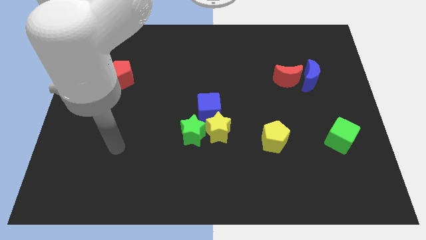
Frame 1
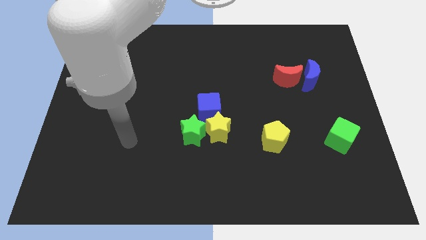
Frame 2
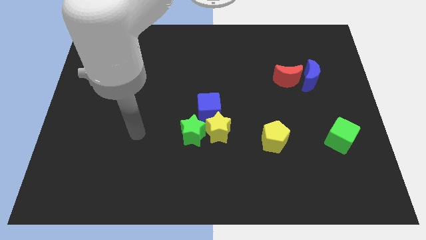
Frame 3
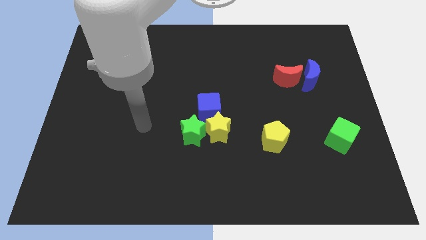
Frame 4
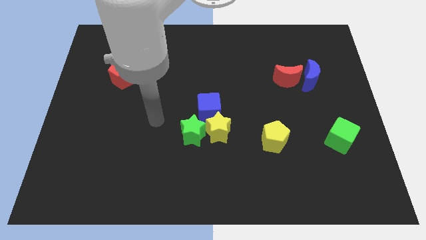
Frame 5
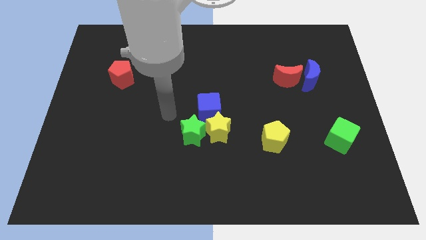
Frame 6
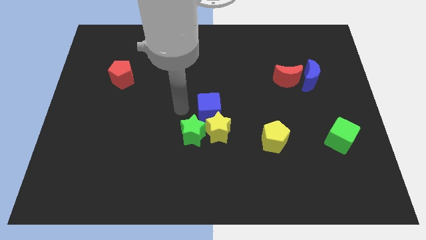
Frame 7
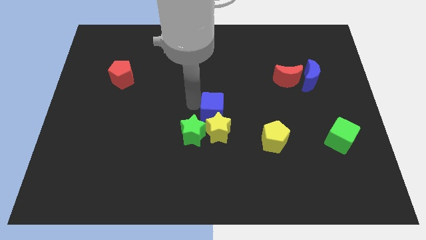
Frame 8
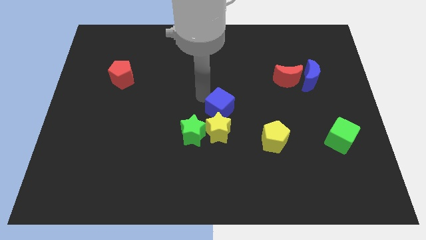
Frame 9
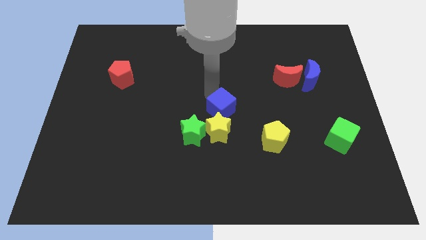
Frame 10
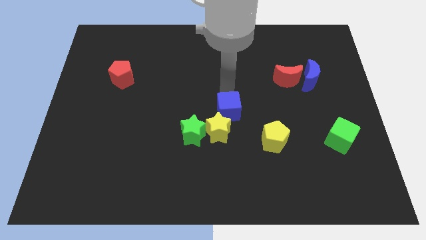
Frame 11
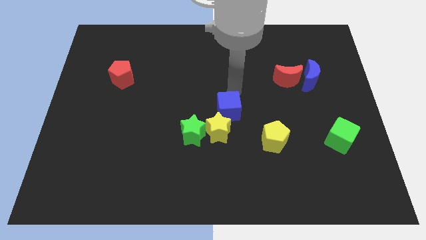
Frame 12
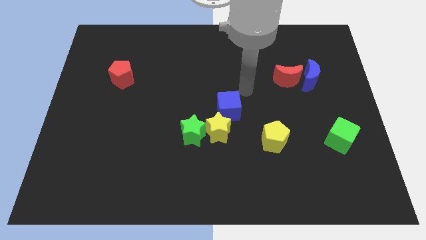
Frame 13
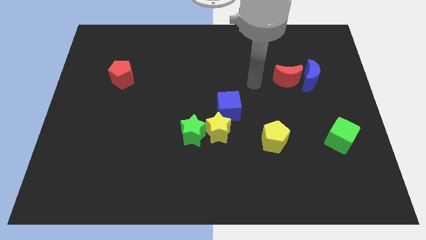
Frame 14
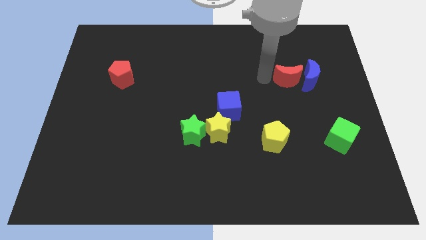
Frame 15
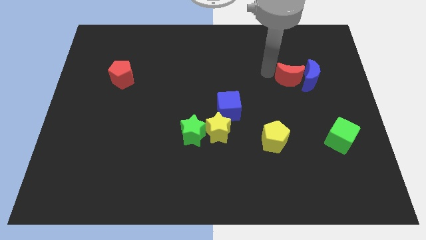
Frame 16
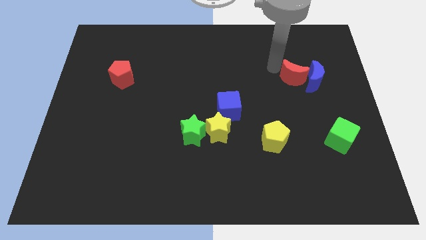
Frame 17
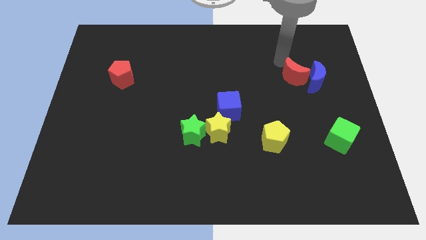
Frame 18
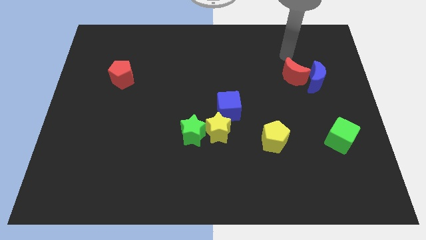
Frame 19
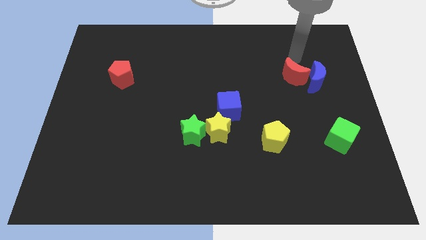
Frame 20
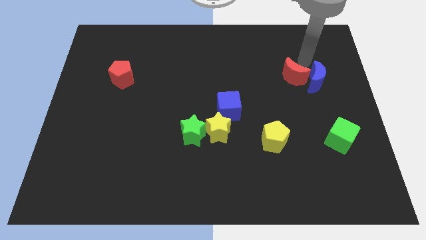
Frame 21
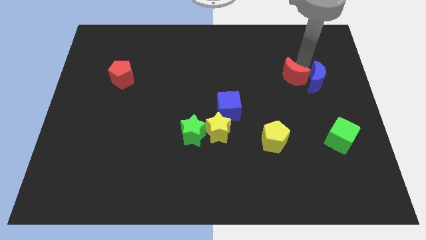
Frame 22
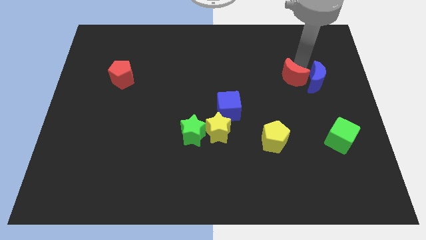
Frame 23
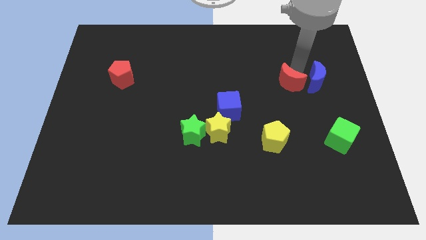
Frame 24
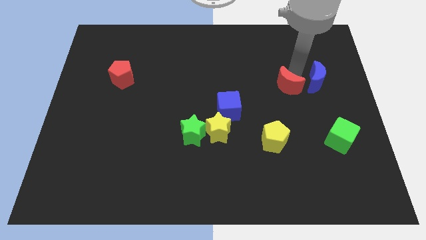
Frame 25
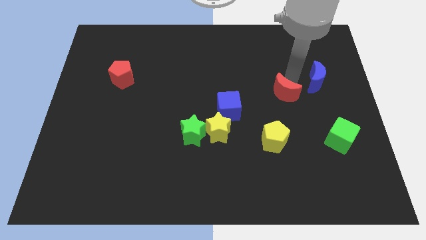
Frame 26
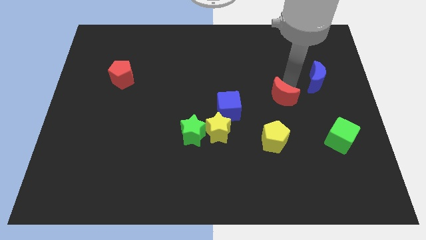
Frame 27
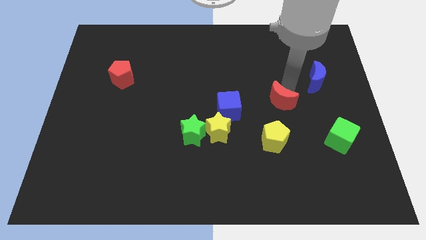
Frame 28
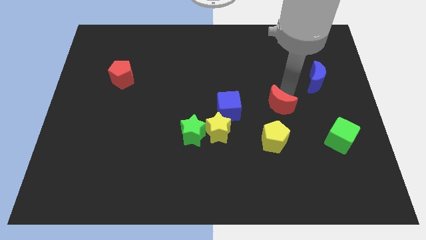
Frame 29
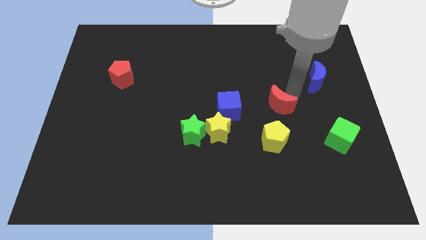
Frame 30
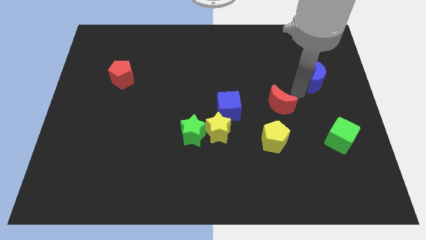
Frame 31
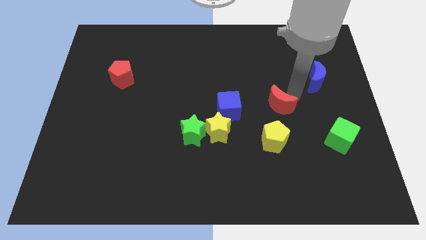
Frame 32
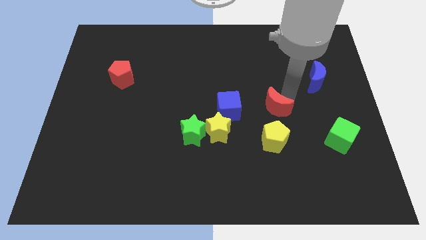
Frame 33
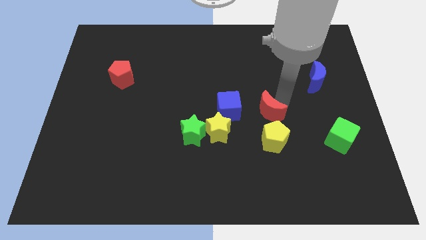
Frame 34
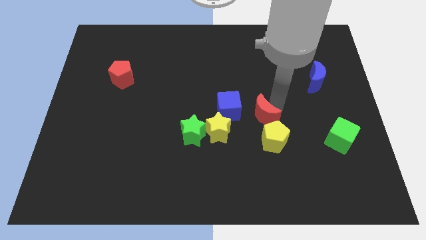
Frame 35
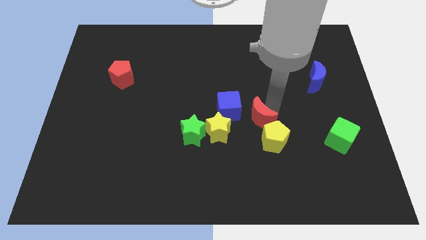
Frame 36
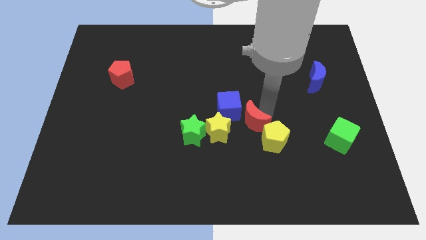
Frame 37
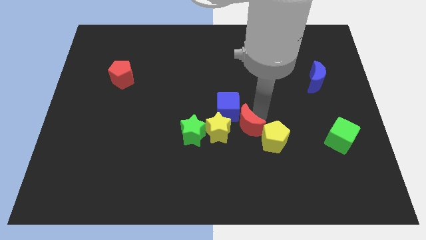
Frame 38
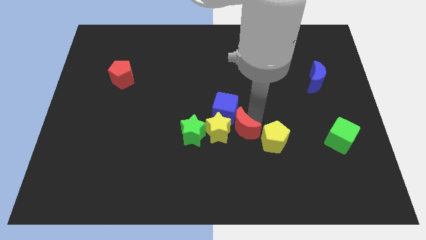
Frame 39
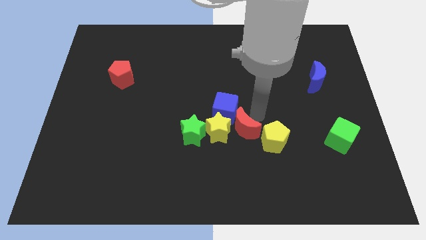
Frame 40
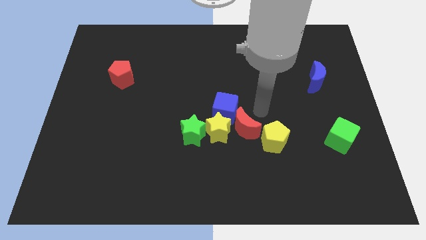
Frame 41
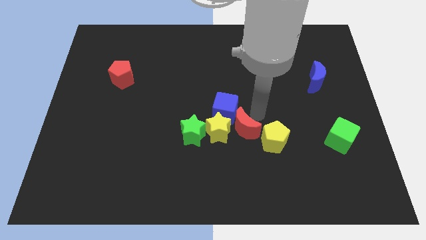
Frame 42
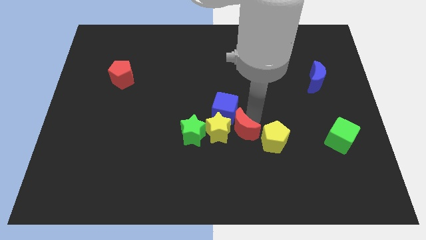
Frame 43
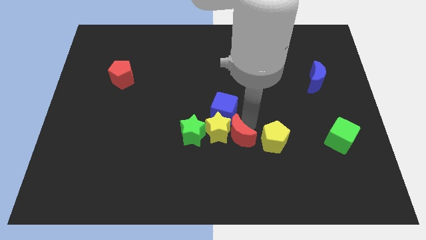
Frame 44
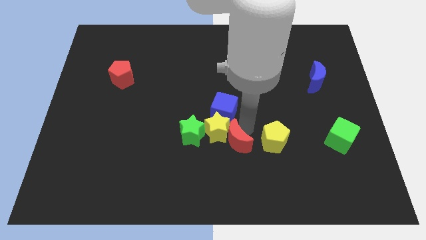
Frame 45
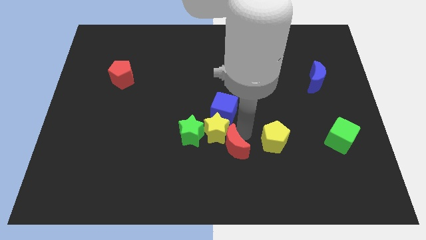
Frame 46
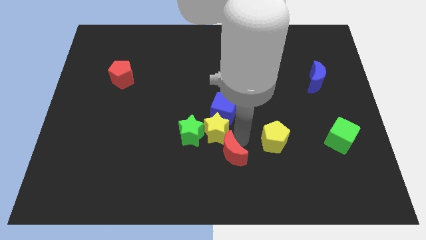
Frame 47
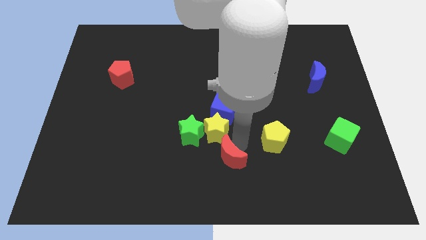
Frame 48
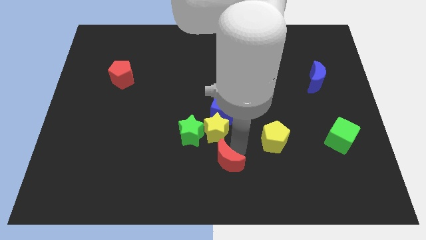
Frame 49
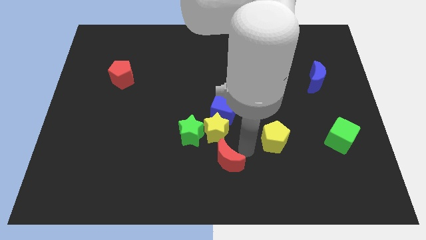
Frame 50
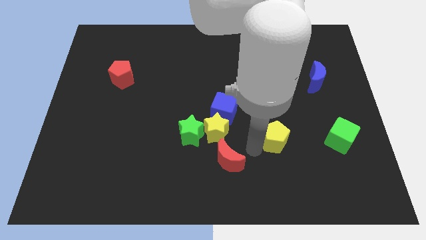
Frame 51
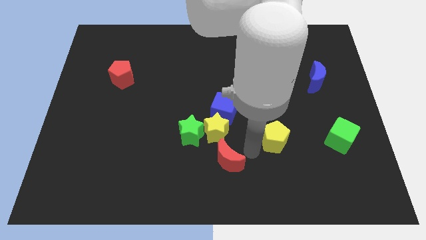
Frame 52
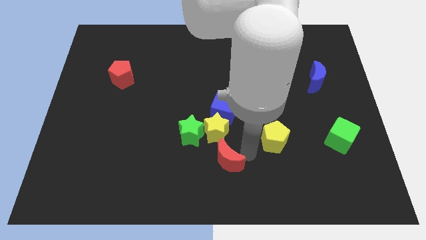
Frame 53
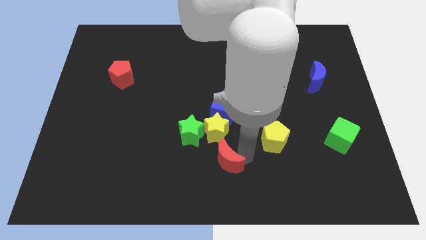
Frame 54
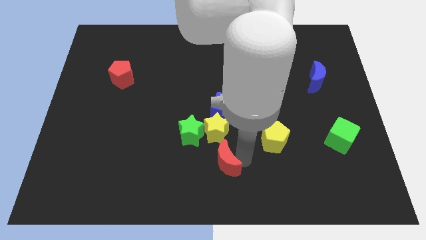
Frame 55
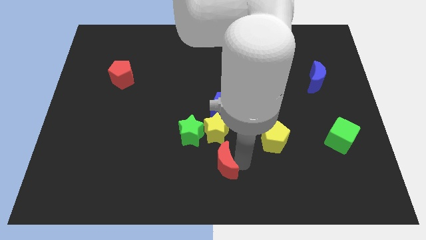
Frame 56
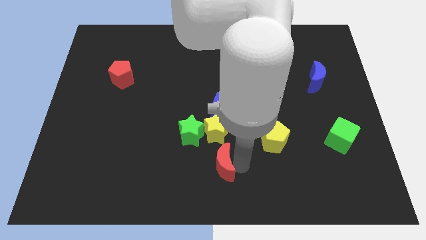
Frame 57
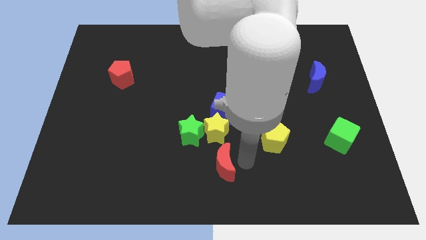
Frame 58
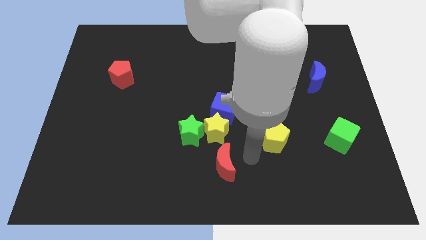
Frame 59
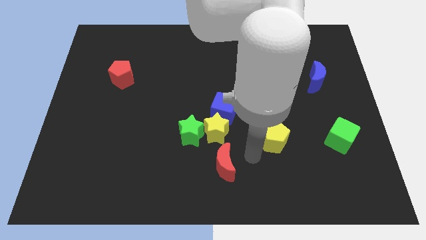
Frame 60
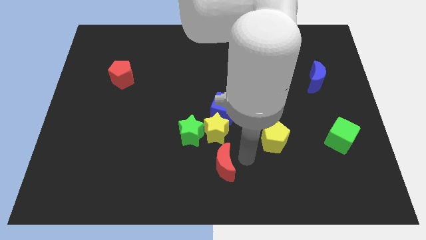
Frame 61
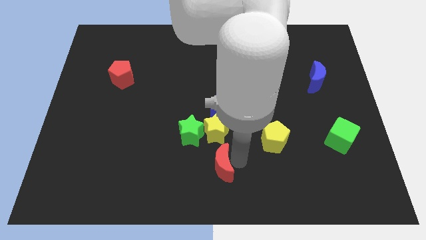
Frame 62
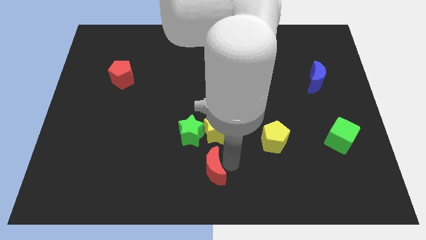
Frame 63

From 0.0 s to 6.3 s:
push the red moon below the green star

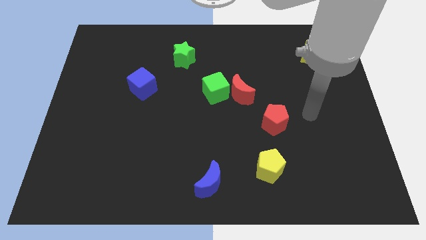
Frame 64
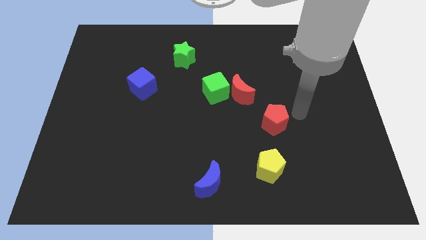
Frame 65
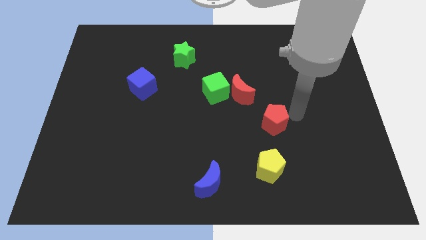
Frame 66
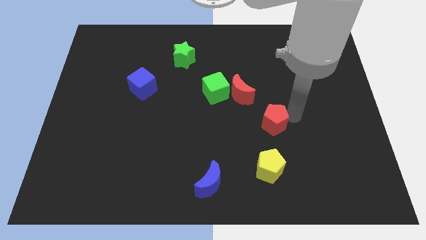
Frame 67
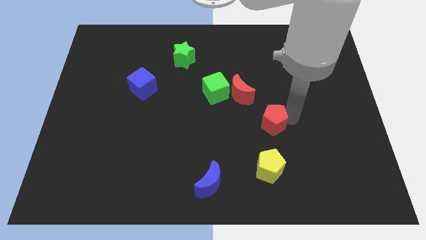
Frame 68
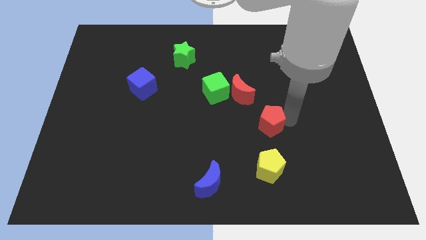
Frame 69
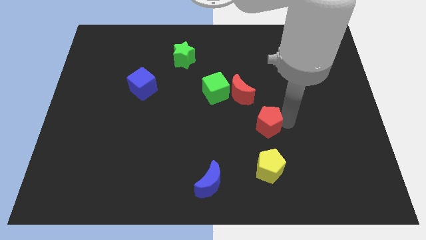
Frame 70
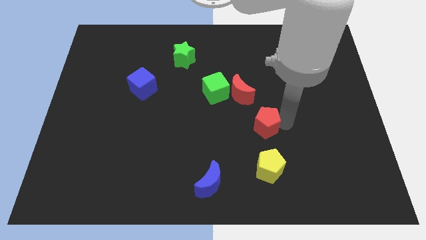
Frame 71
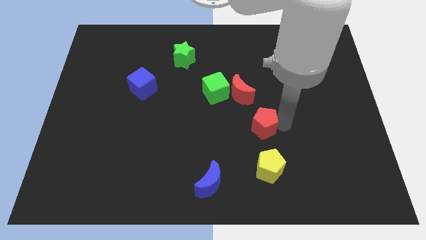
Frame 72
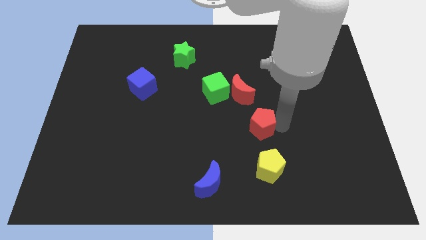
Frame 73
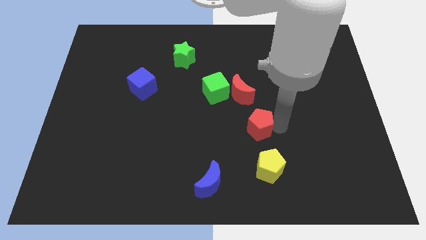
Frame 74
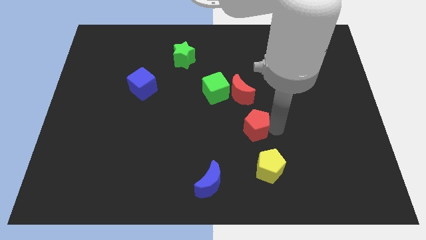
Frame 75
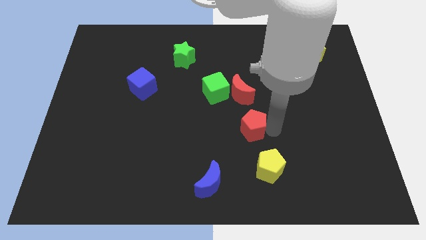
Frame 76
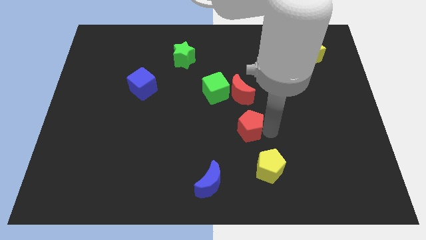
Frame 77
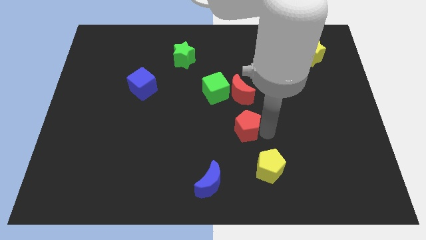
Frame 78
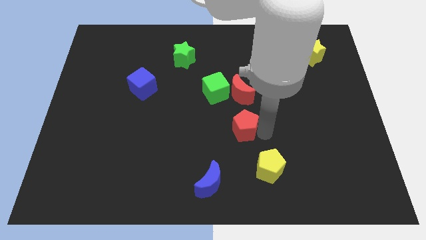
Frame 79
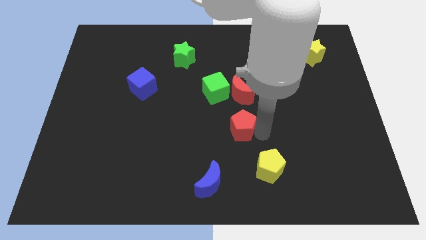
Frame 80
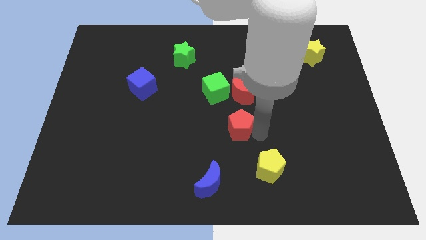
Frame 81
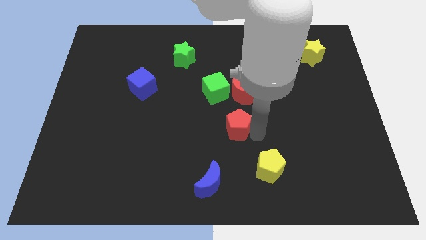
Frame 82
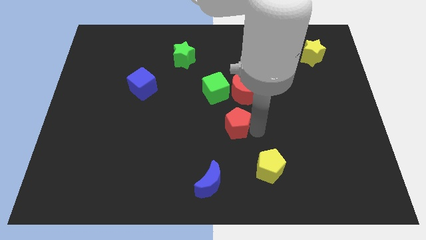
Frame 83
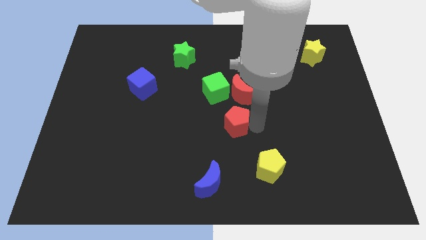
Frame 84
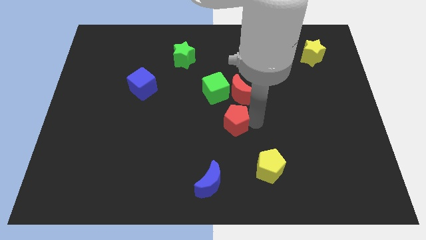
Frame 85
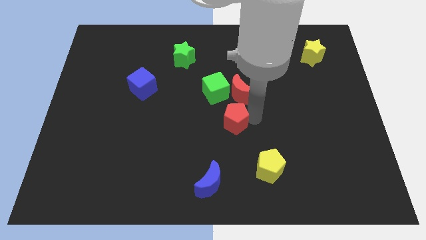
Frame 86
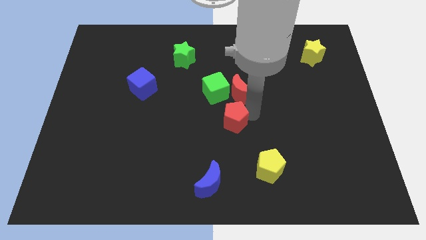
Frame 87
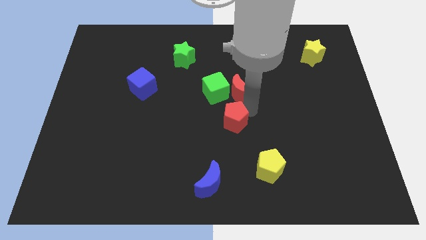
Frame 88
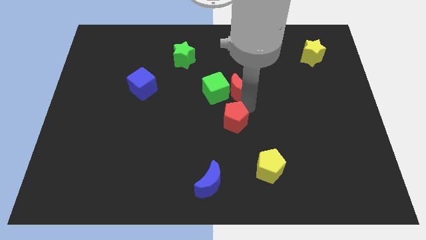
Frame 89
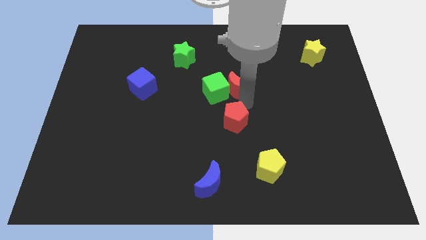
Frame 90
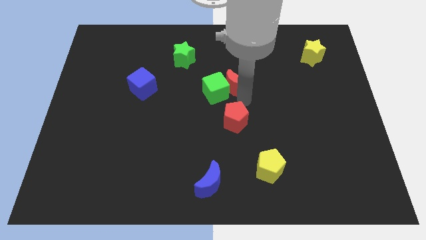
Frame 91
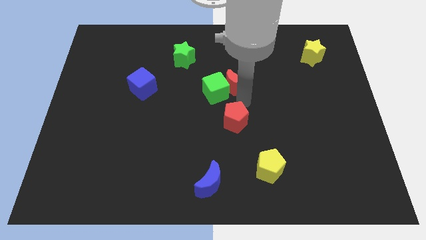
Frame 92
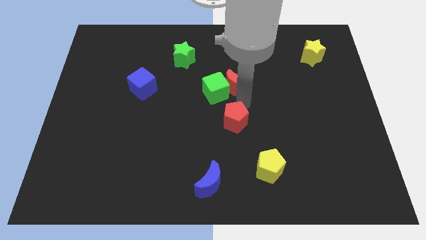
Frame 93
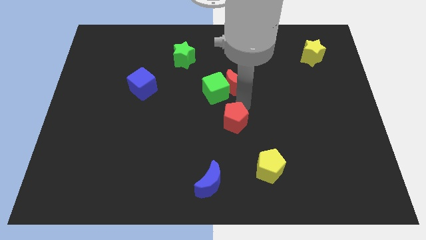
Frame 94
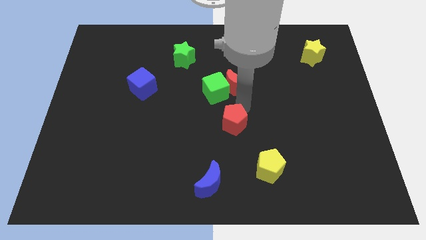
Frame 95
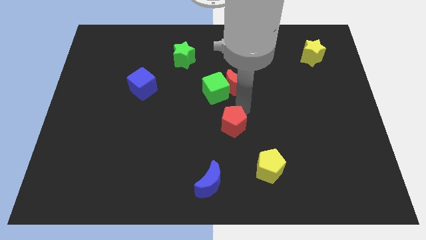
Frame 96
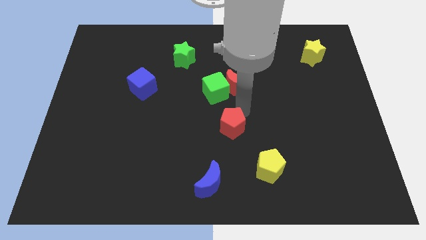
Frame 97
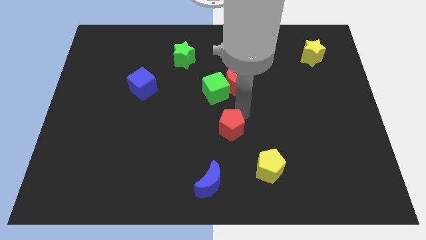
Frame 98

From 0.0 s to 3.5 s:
put the red pentagon above the blue moon
